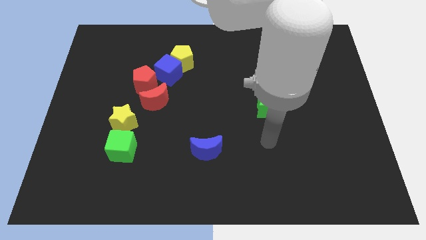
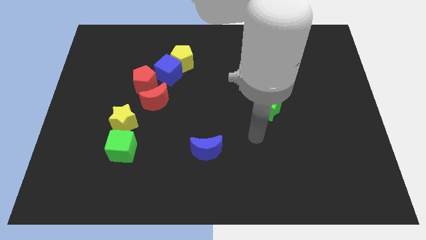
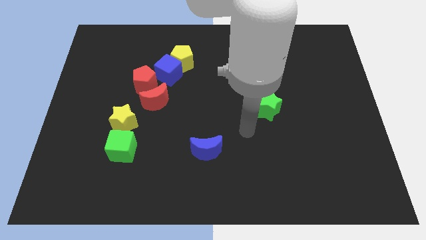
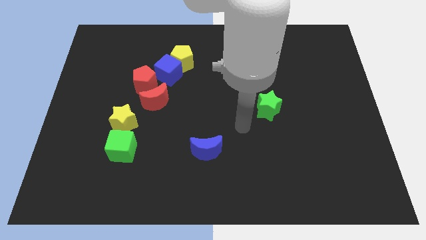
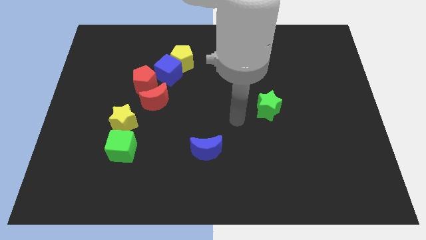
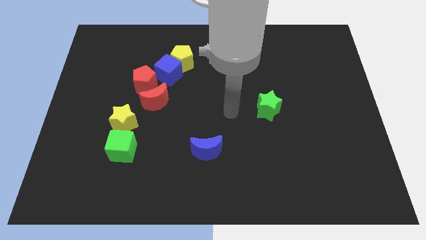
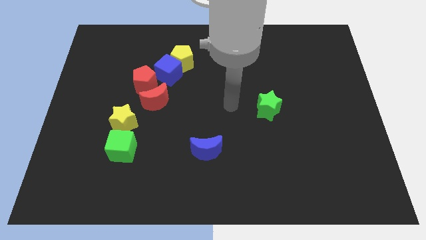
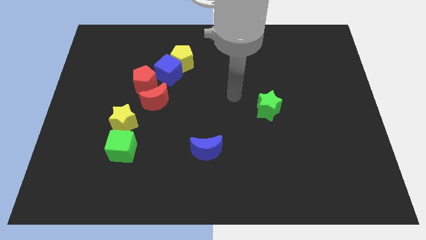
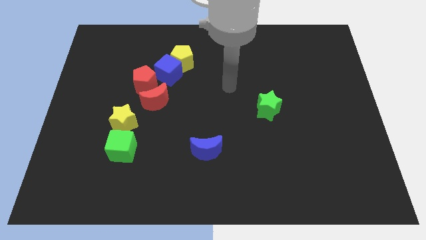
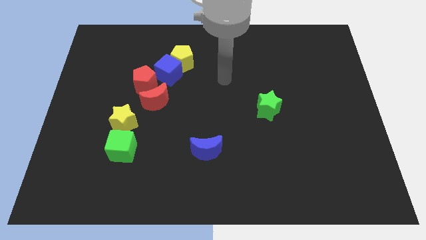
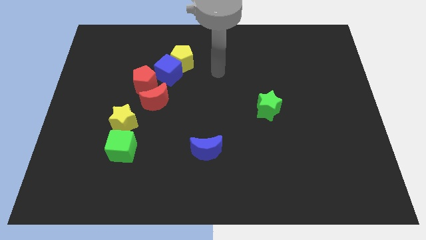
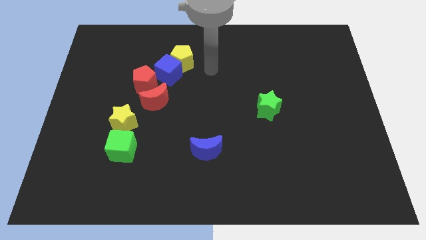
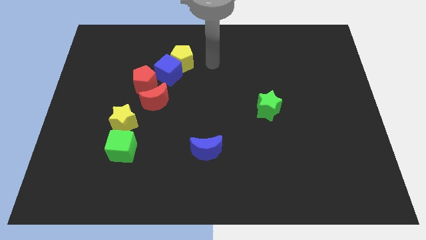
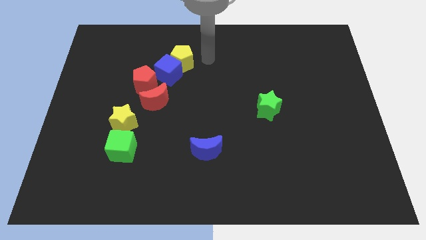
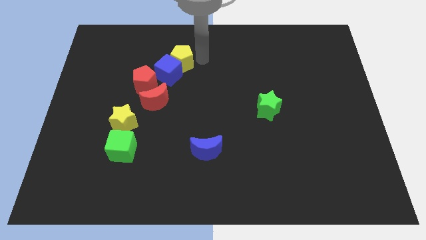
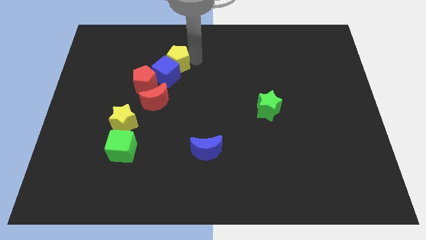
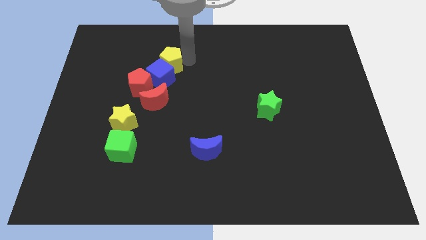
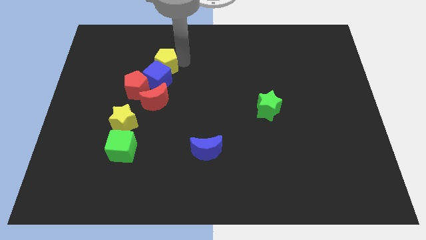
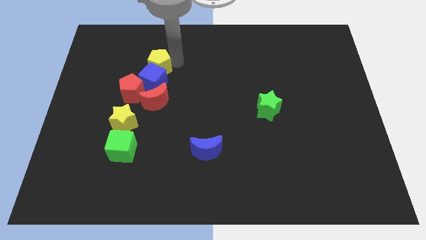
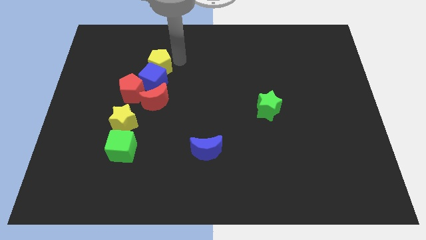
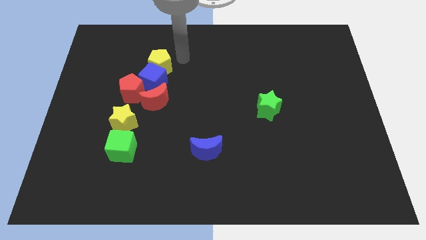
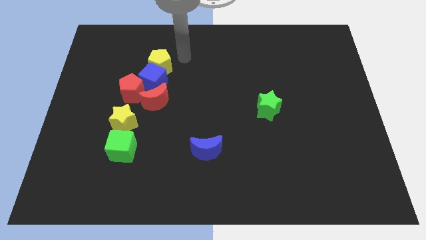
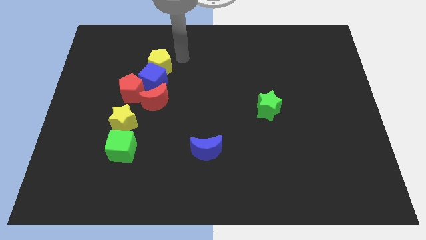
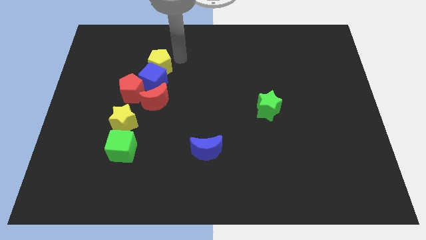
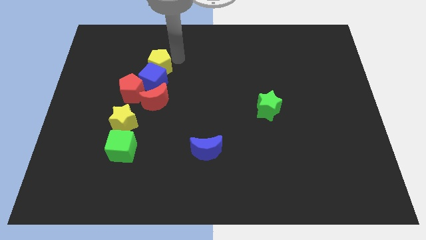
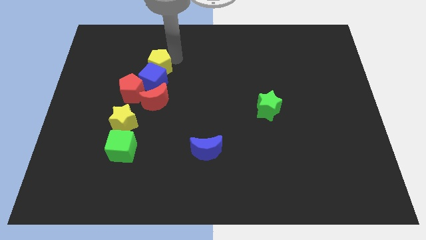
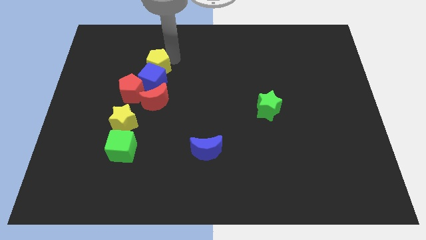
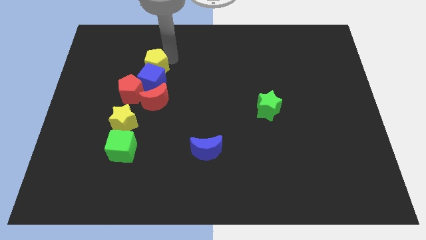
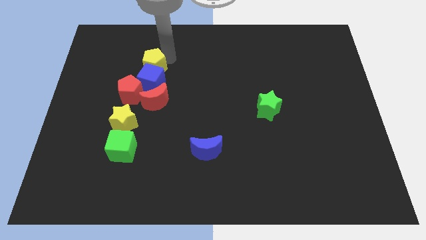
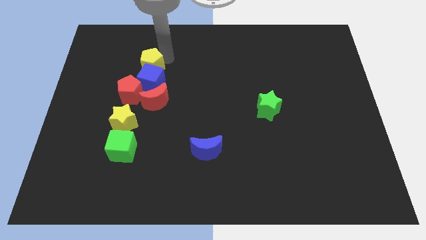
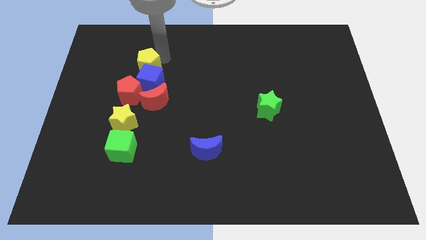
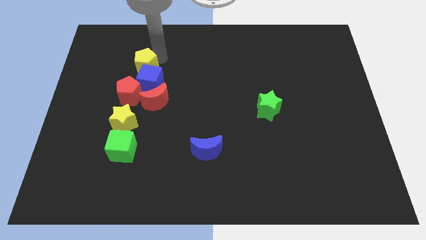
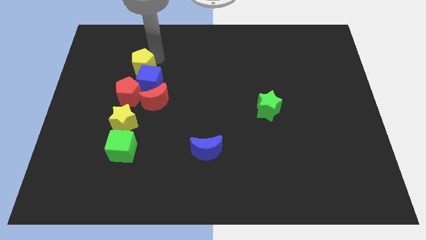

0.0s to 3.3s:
slightly slide the yellow pentagon downwards and to the left

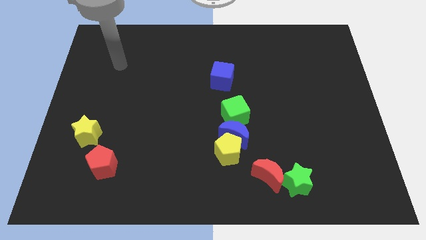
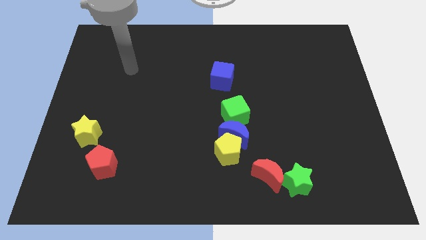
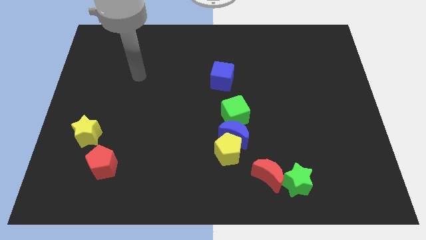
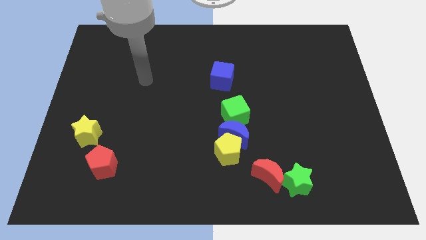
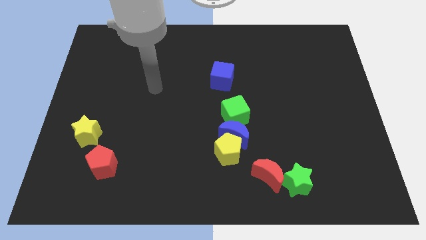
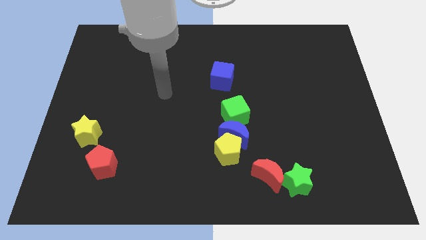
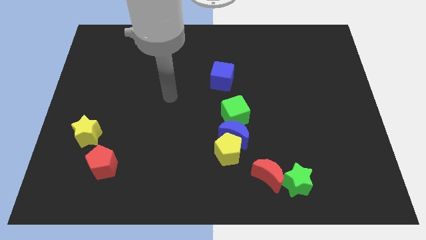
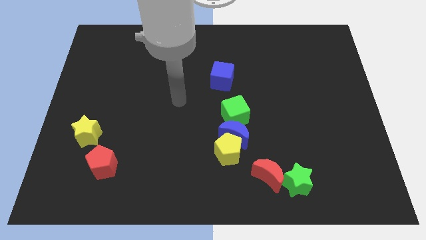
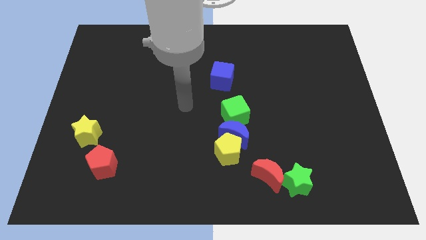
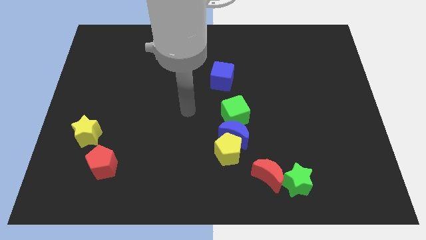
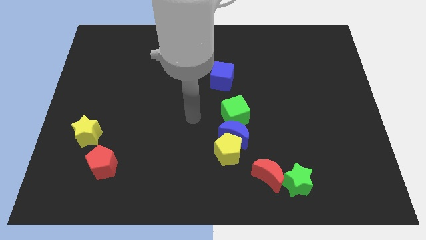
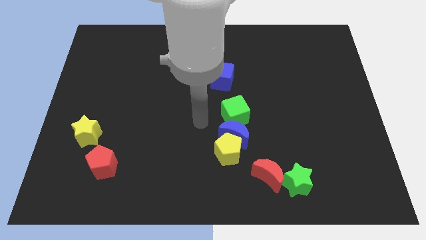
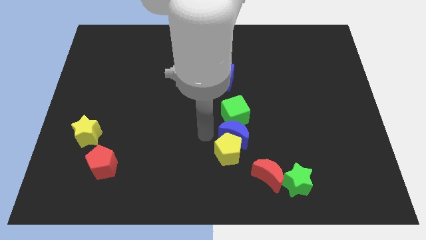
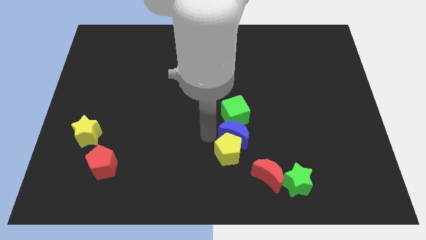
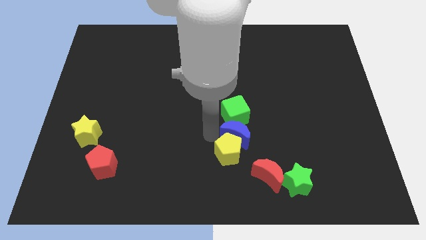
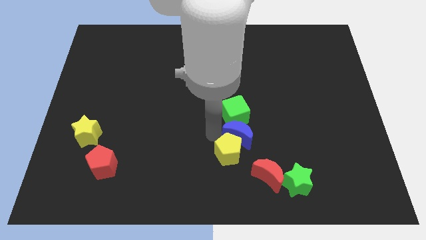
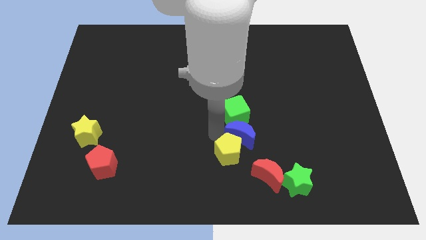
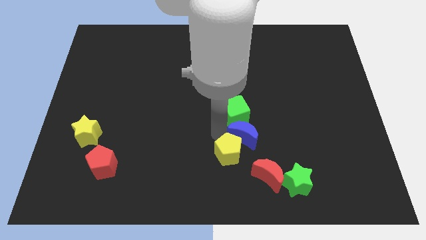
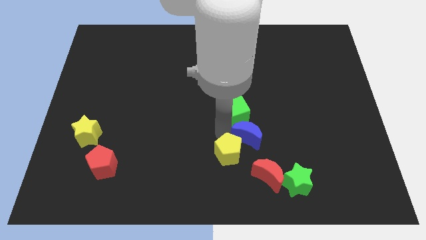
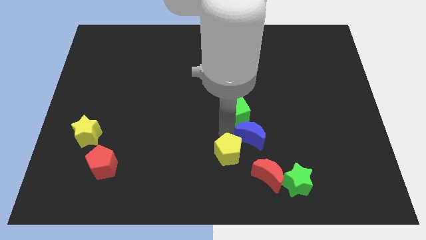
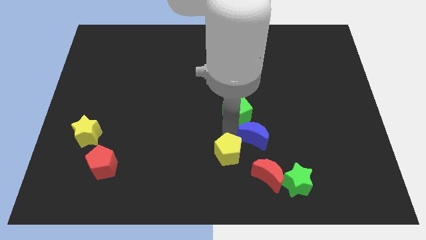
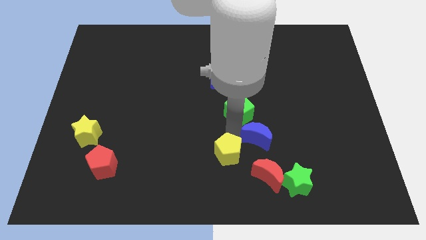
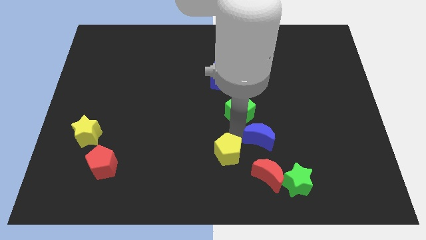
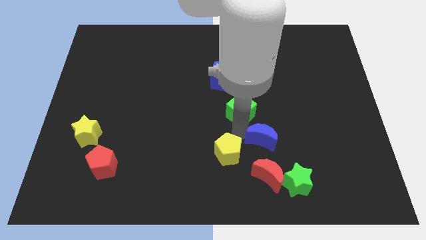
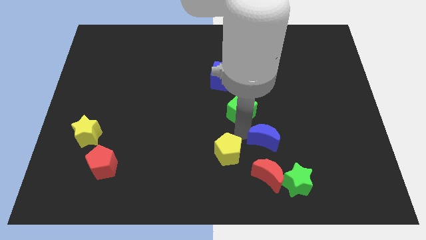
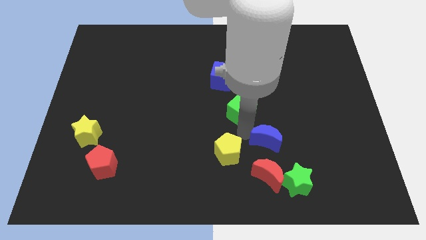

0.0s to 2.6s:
push the blue moon a little right

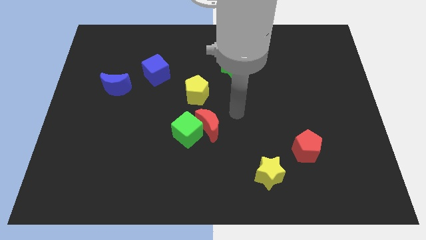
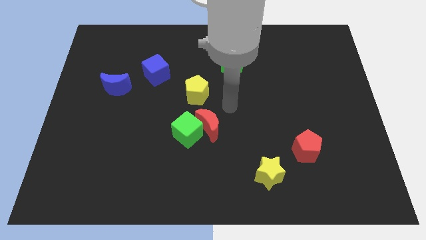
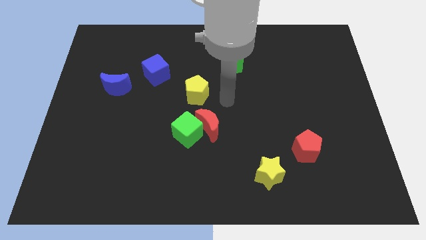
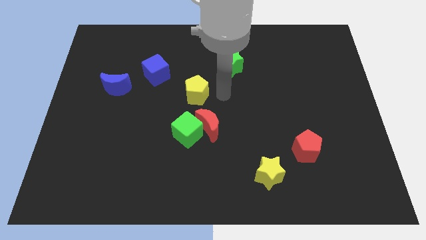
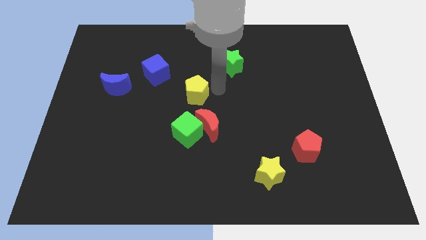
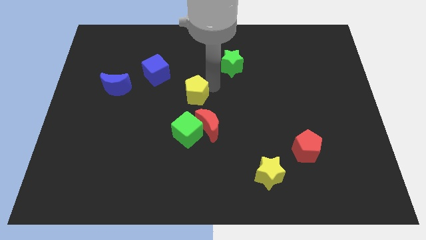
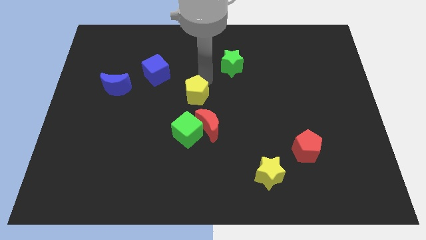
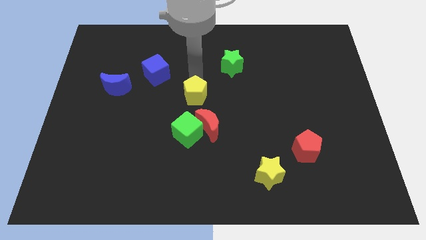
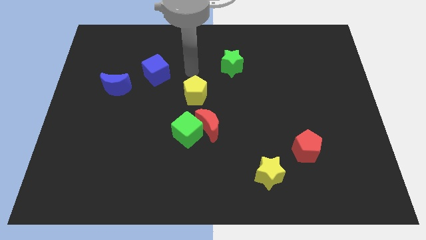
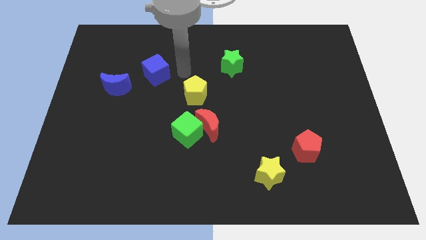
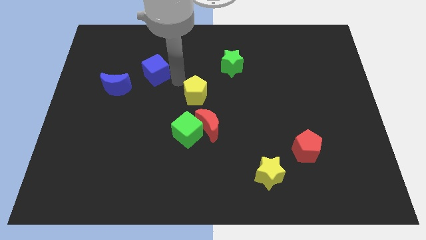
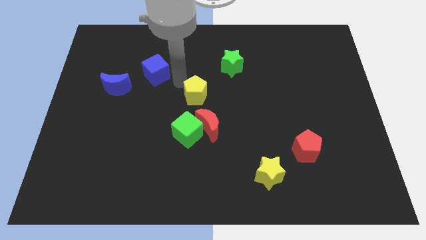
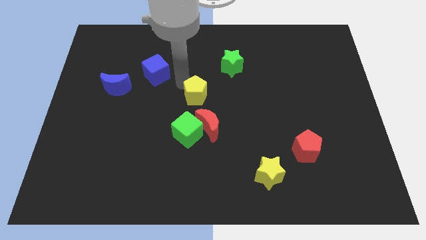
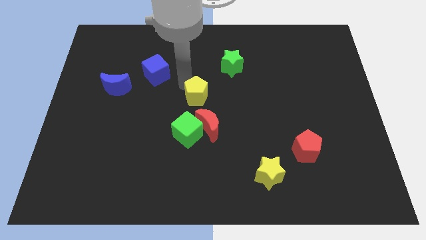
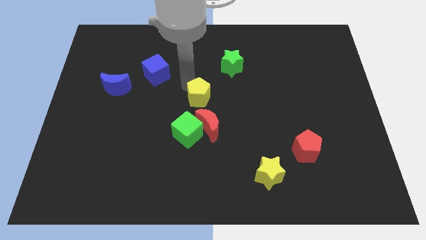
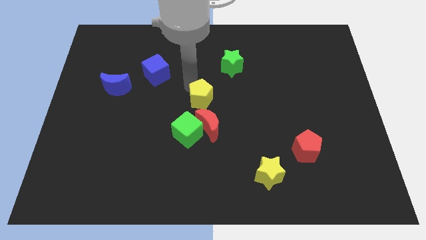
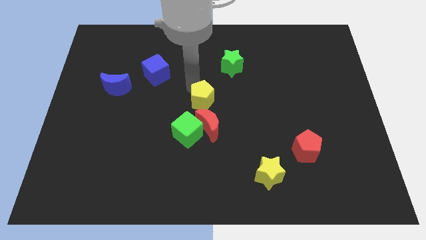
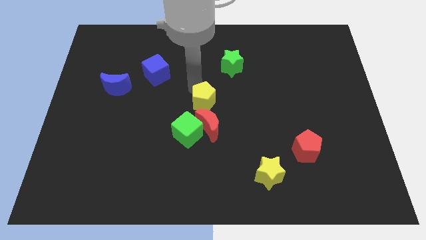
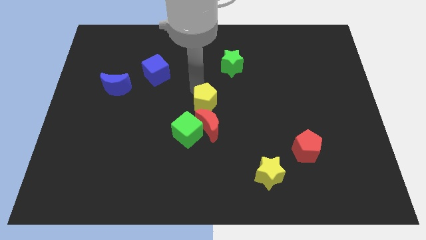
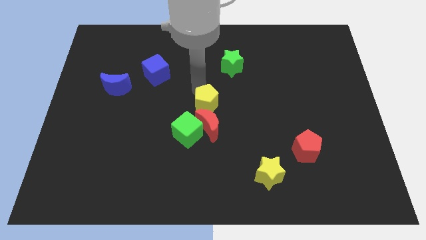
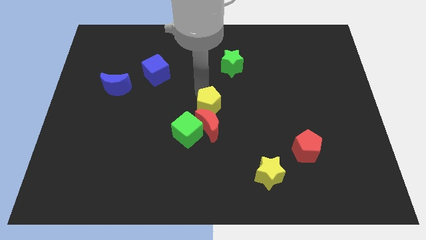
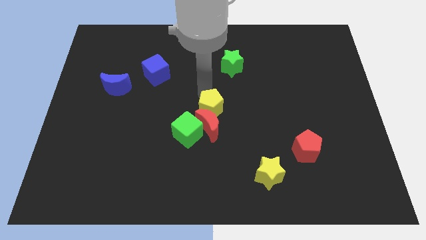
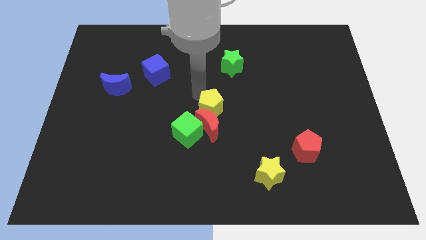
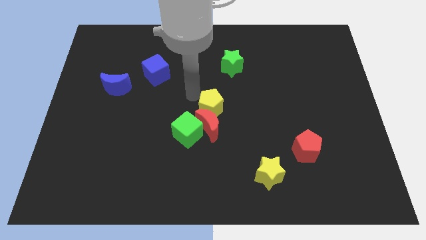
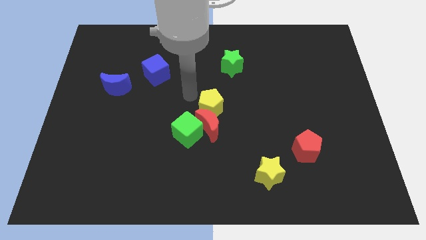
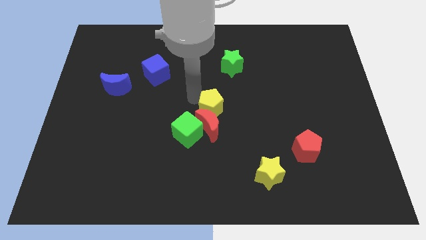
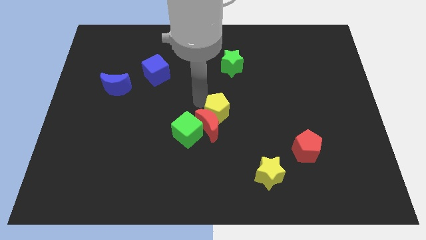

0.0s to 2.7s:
move the yellow pentagon down and to the right diagonally somewhat
